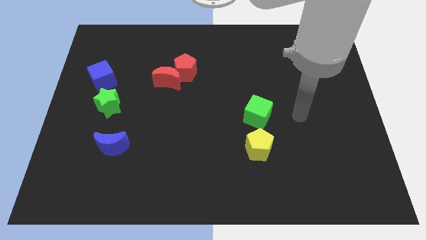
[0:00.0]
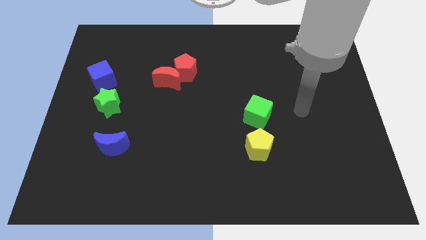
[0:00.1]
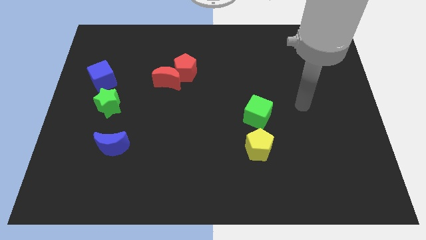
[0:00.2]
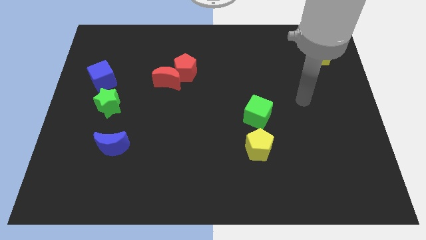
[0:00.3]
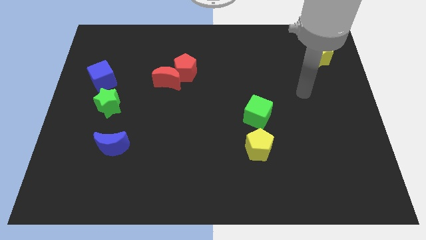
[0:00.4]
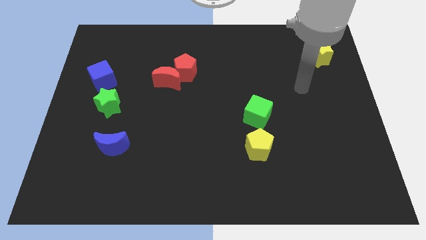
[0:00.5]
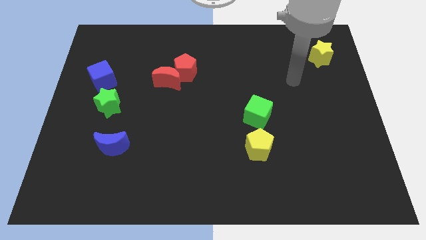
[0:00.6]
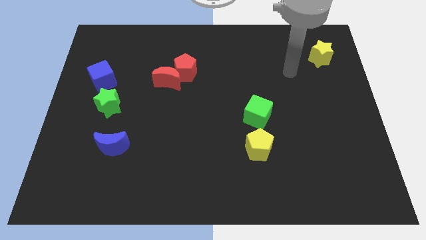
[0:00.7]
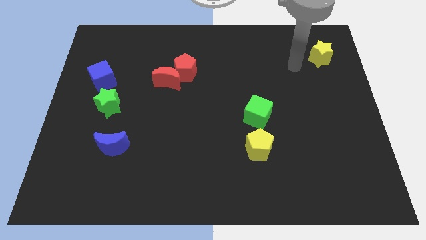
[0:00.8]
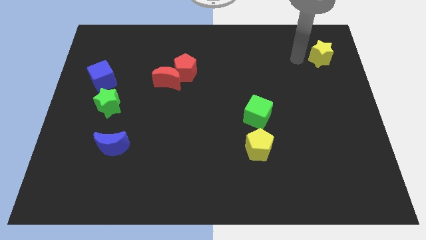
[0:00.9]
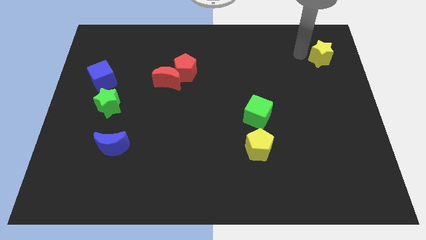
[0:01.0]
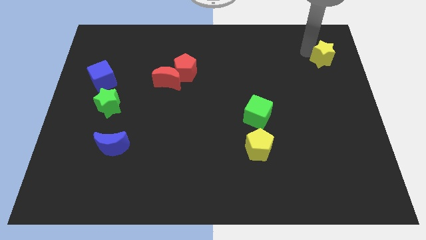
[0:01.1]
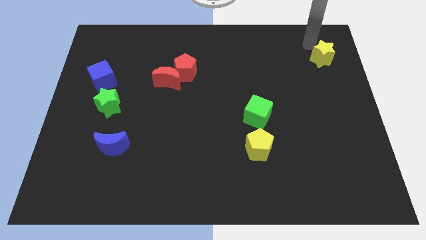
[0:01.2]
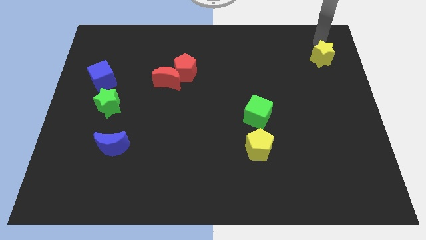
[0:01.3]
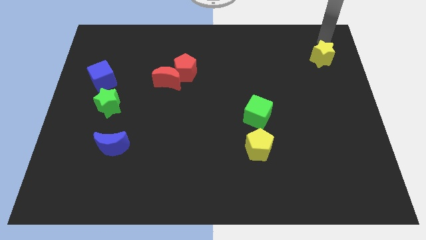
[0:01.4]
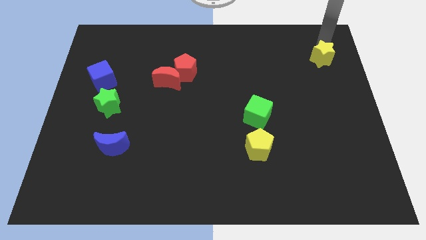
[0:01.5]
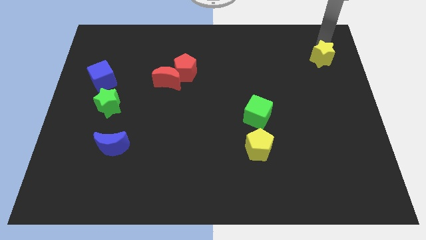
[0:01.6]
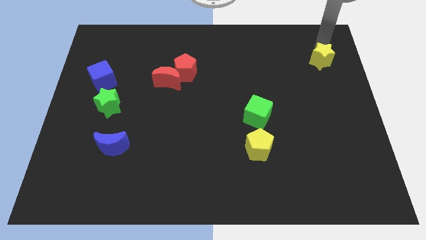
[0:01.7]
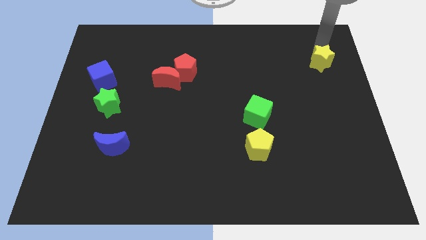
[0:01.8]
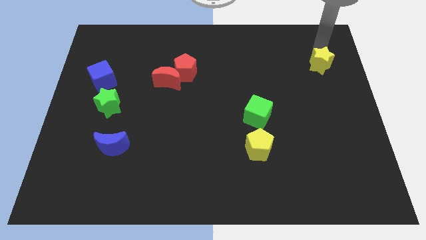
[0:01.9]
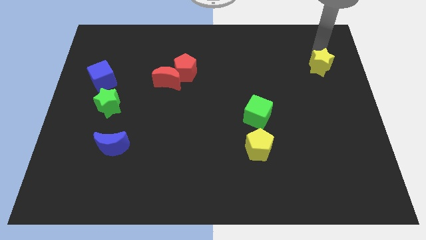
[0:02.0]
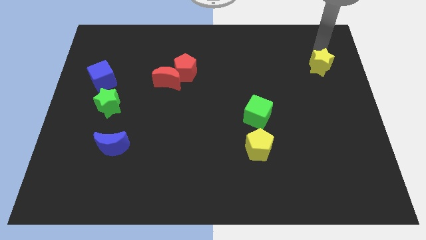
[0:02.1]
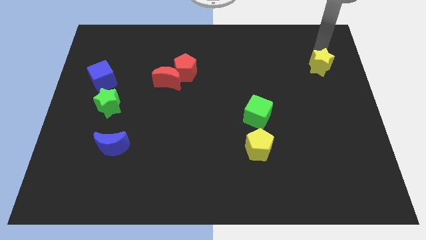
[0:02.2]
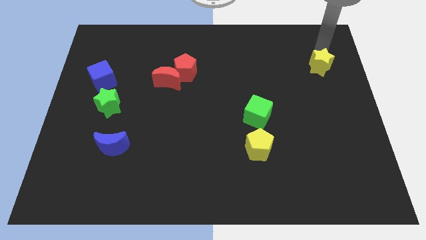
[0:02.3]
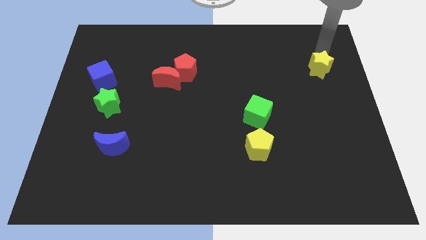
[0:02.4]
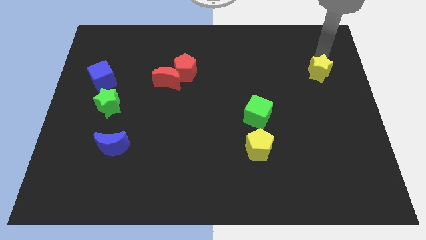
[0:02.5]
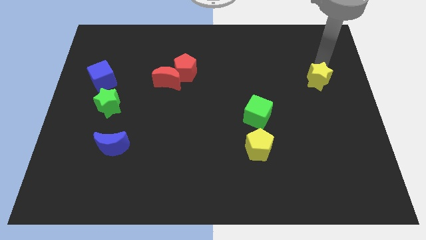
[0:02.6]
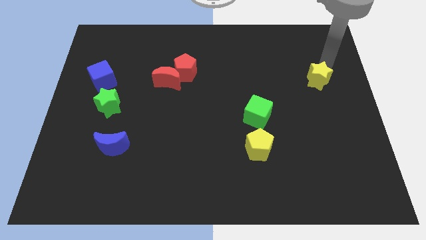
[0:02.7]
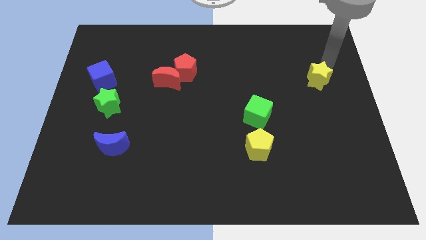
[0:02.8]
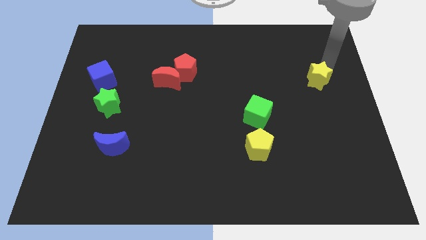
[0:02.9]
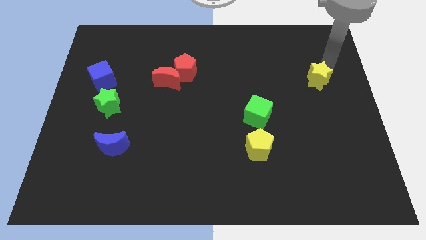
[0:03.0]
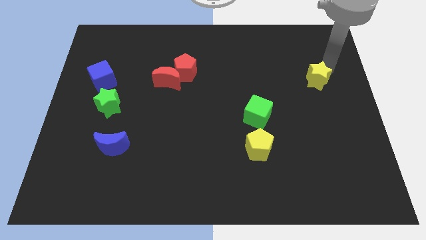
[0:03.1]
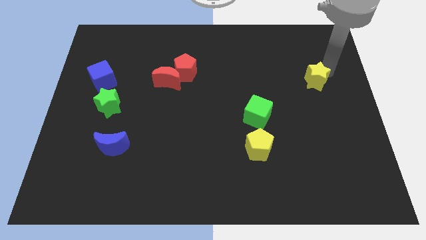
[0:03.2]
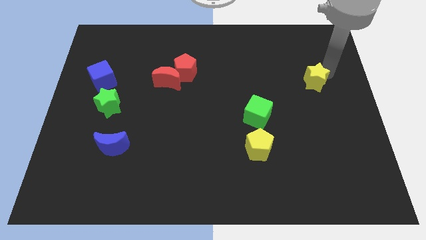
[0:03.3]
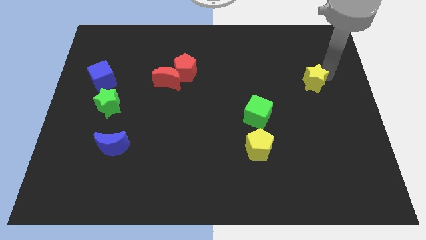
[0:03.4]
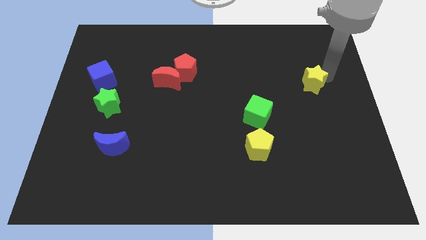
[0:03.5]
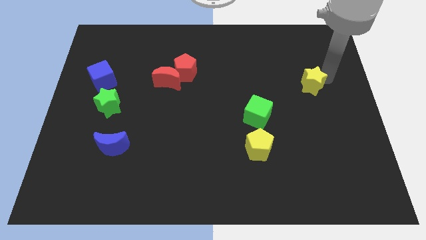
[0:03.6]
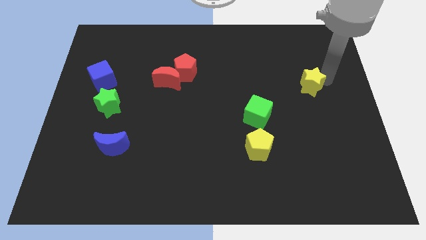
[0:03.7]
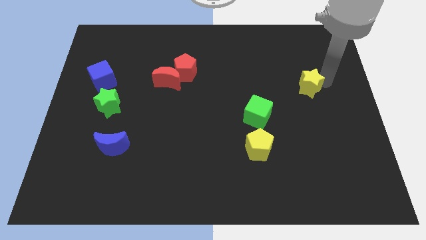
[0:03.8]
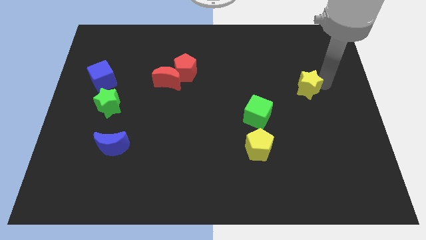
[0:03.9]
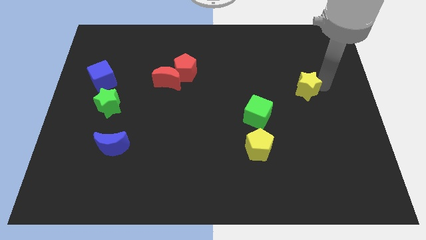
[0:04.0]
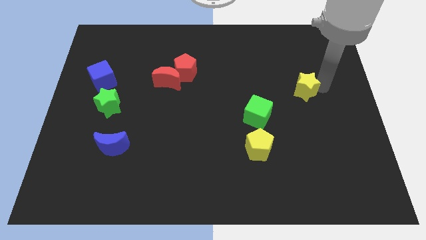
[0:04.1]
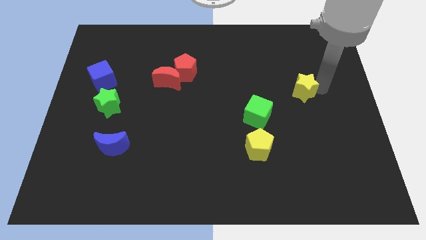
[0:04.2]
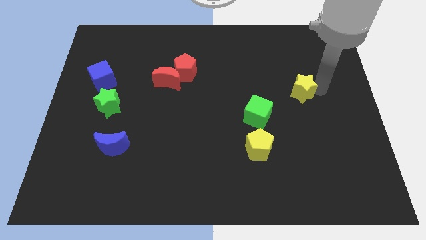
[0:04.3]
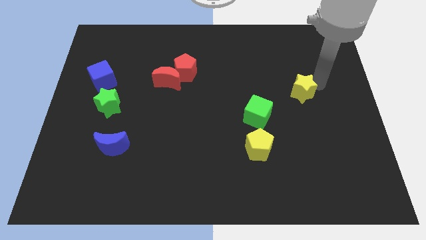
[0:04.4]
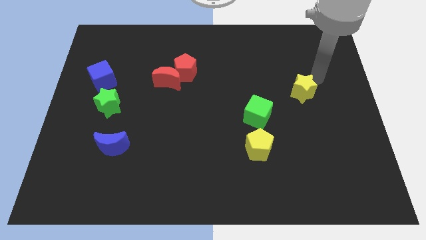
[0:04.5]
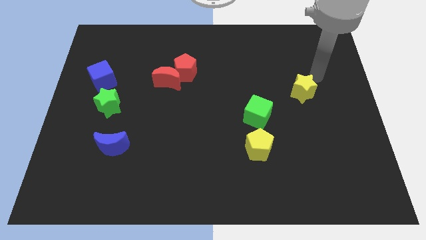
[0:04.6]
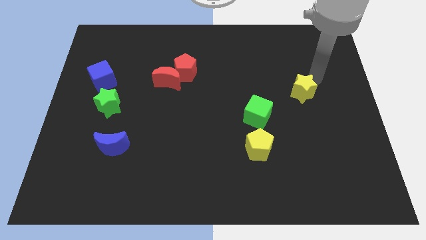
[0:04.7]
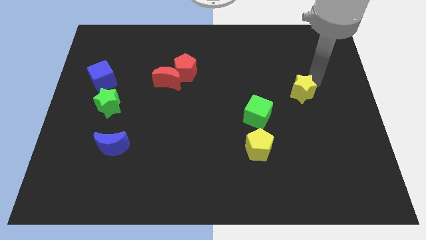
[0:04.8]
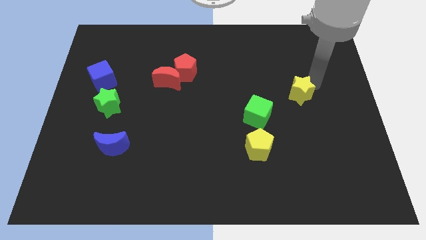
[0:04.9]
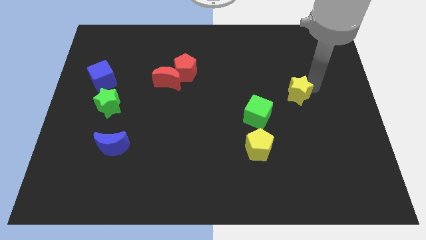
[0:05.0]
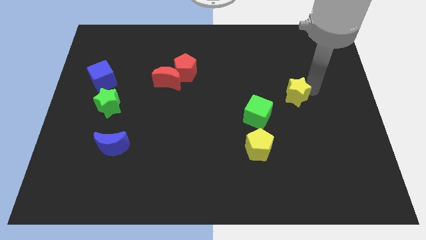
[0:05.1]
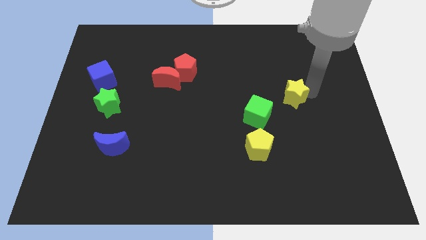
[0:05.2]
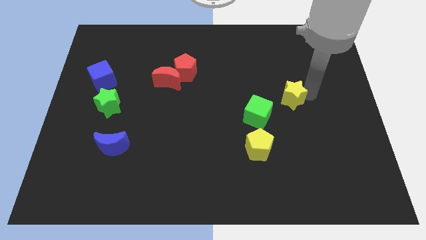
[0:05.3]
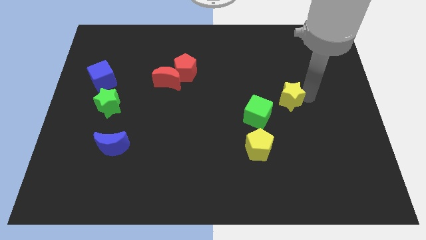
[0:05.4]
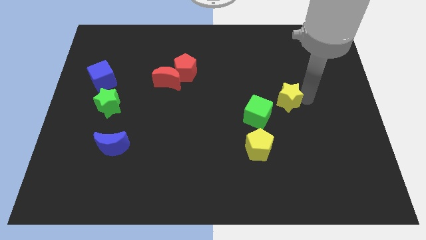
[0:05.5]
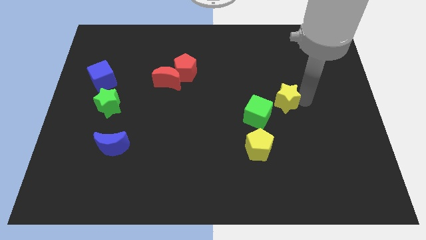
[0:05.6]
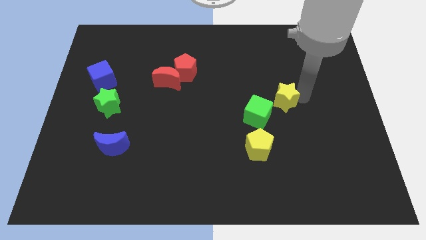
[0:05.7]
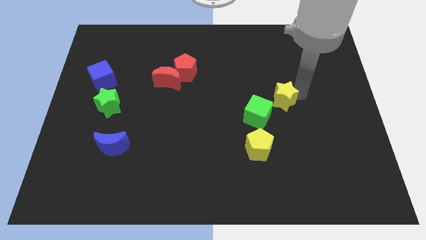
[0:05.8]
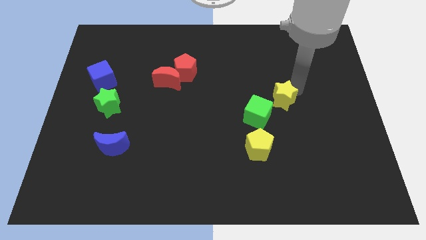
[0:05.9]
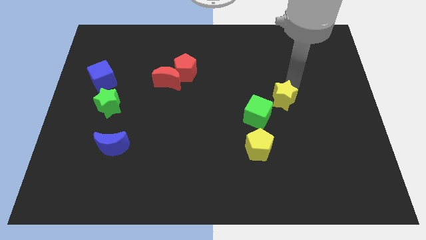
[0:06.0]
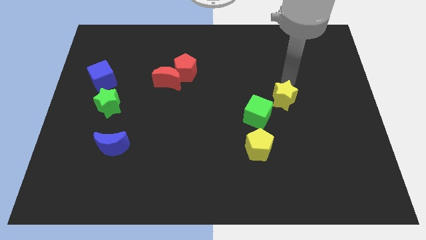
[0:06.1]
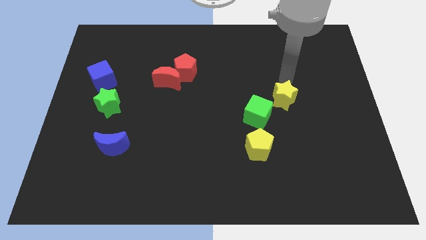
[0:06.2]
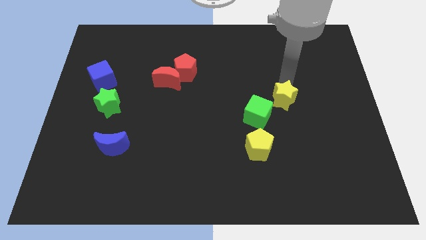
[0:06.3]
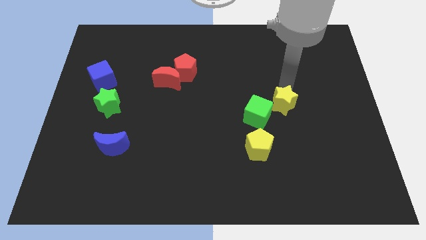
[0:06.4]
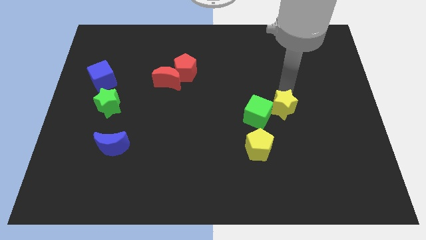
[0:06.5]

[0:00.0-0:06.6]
push the yellow star diagonally downwards and left

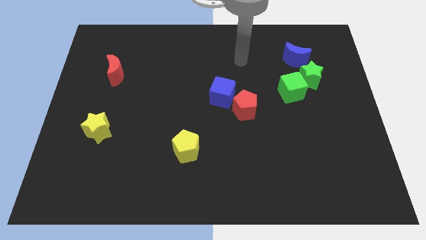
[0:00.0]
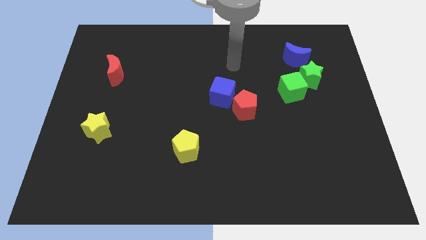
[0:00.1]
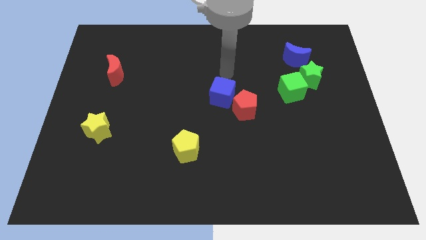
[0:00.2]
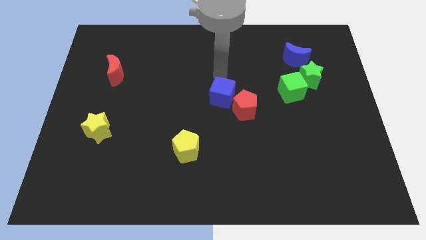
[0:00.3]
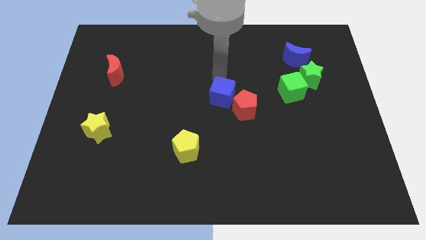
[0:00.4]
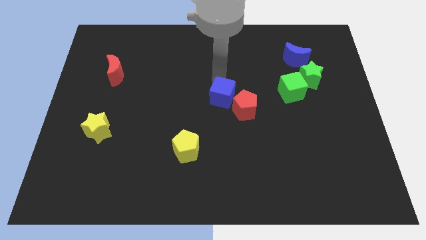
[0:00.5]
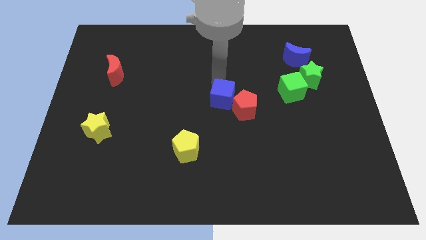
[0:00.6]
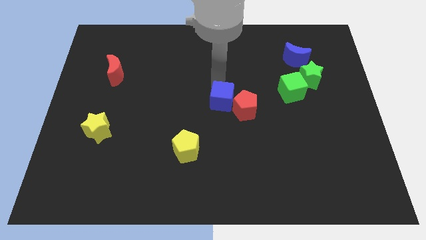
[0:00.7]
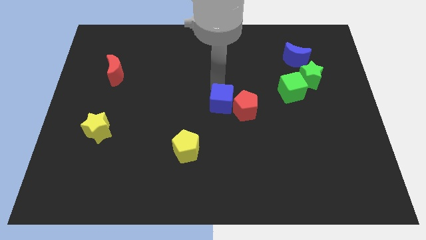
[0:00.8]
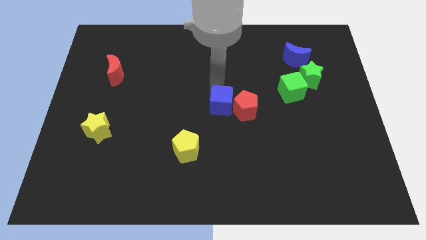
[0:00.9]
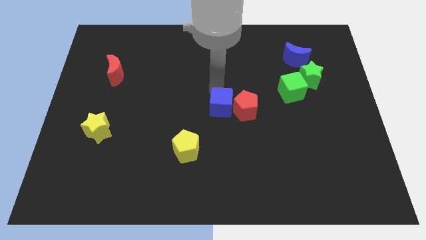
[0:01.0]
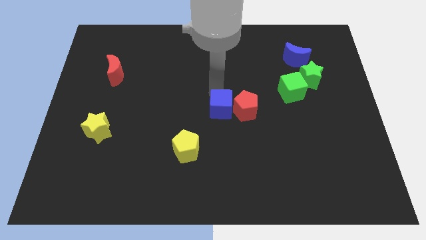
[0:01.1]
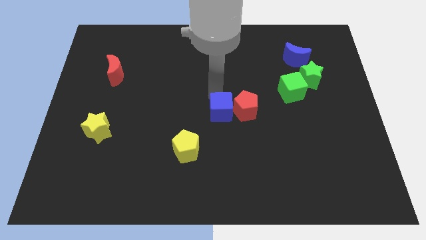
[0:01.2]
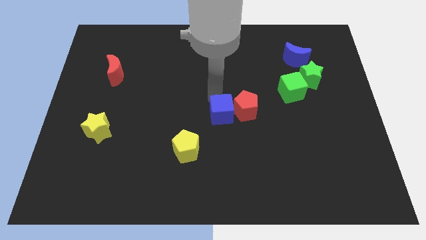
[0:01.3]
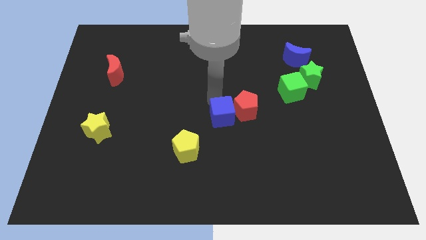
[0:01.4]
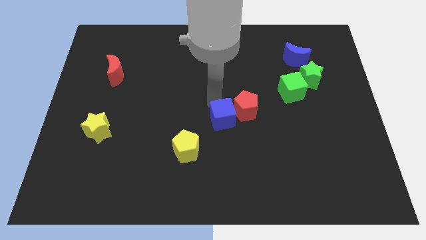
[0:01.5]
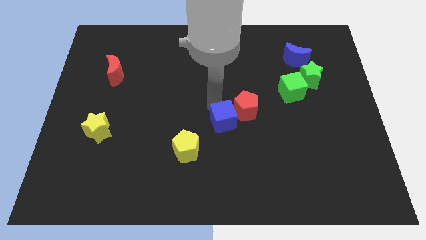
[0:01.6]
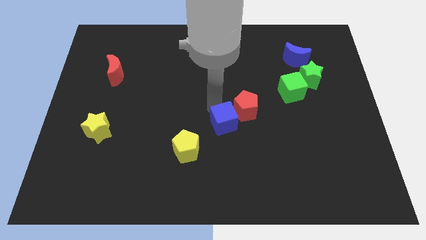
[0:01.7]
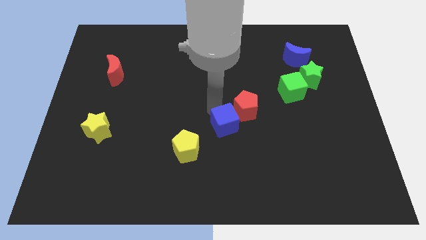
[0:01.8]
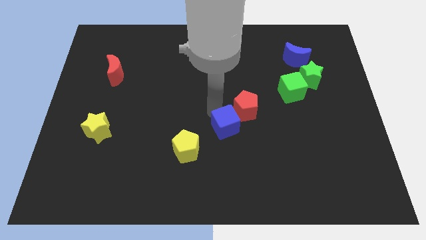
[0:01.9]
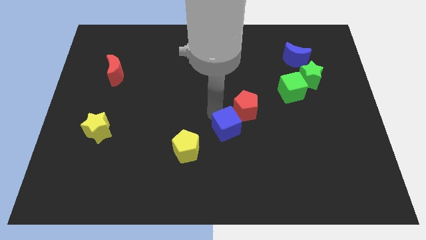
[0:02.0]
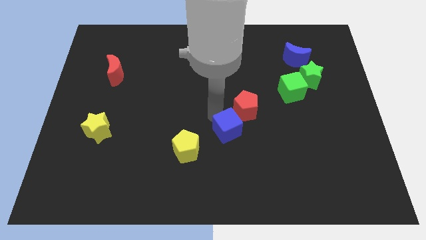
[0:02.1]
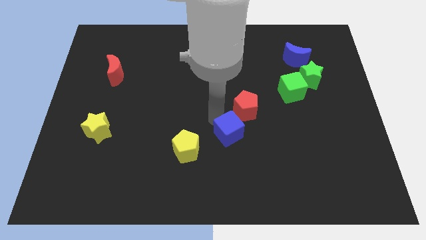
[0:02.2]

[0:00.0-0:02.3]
push the blue cube a little downwards and then right
